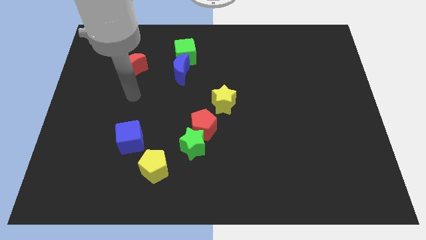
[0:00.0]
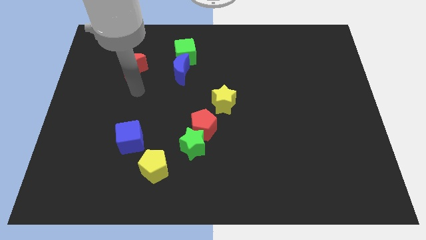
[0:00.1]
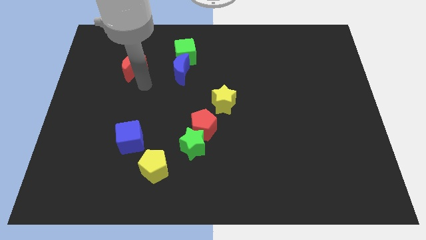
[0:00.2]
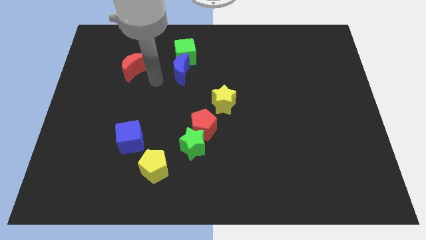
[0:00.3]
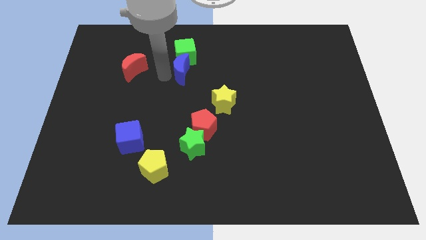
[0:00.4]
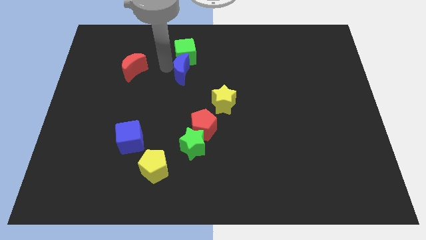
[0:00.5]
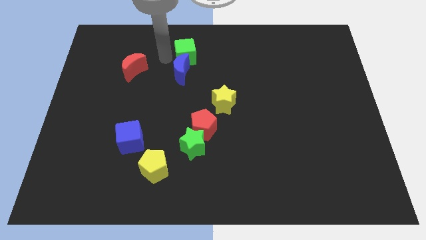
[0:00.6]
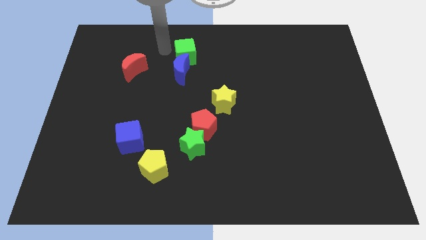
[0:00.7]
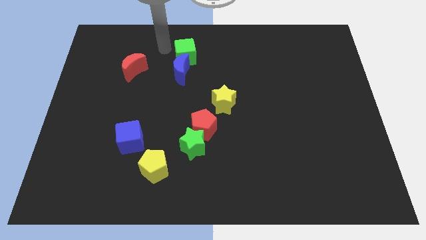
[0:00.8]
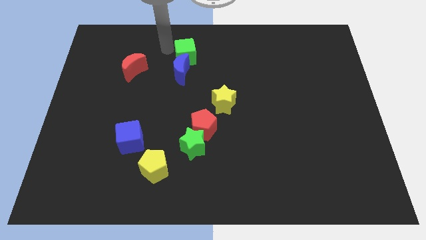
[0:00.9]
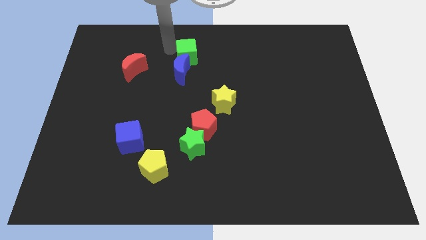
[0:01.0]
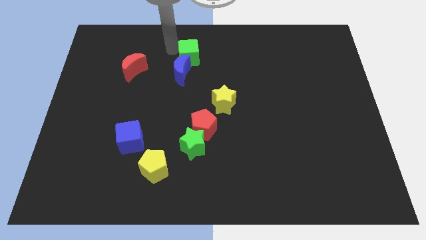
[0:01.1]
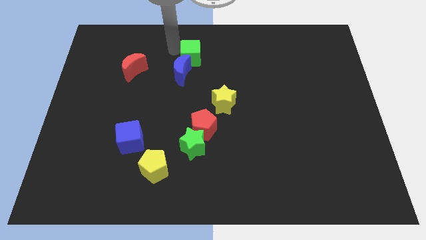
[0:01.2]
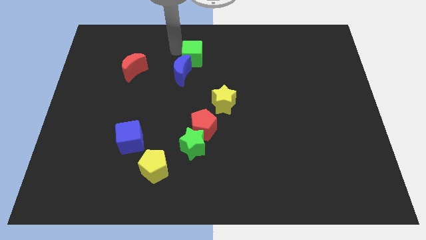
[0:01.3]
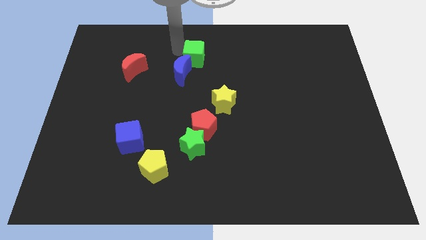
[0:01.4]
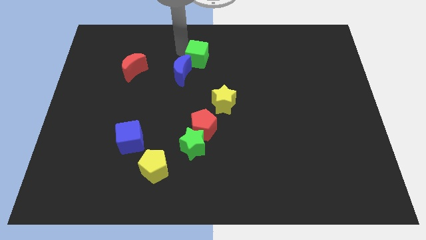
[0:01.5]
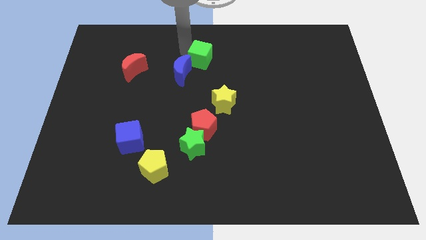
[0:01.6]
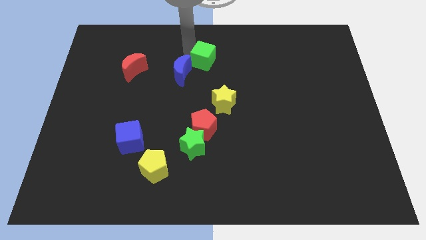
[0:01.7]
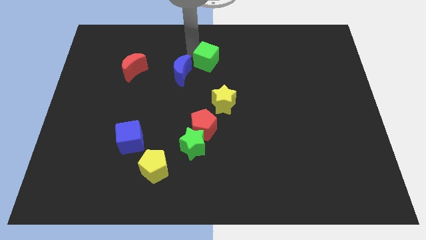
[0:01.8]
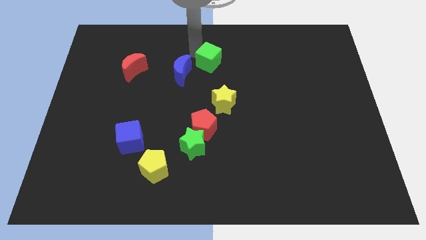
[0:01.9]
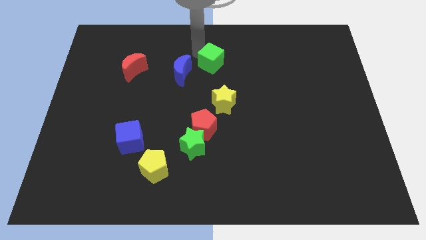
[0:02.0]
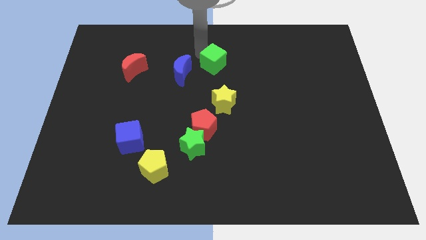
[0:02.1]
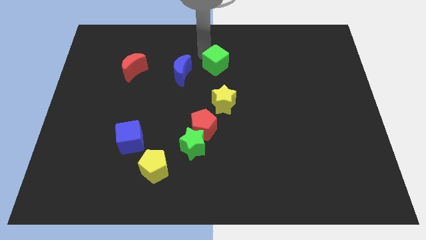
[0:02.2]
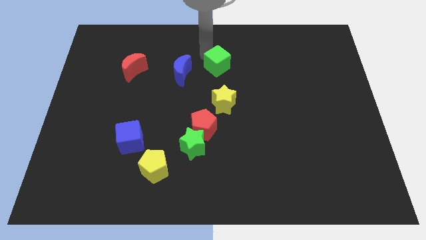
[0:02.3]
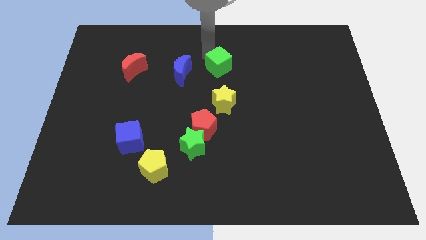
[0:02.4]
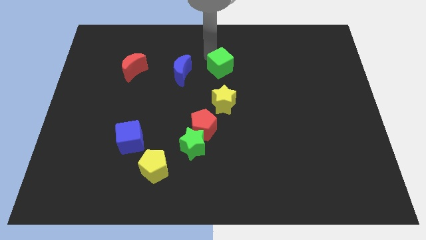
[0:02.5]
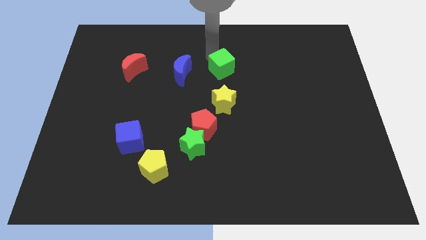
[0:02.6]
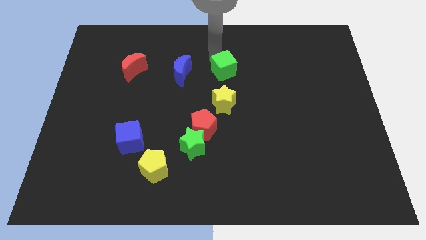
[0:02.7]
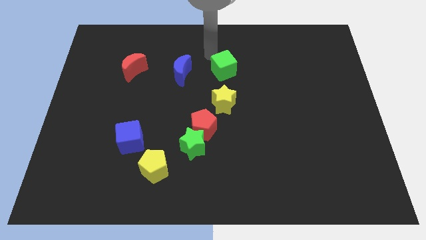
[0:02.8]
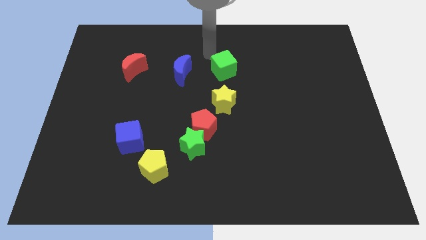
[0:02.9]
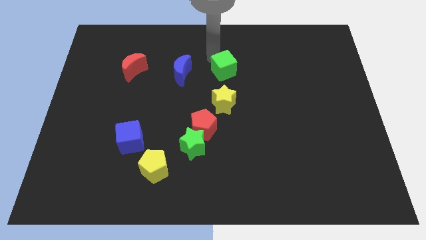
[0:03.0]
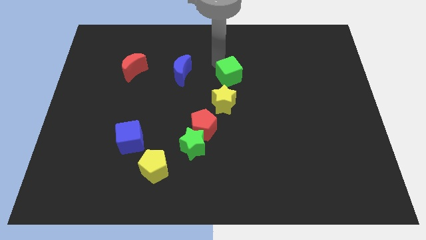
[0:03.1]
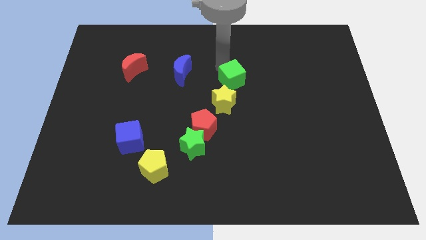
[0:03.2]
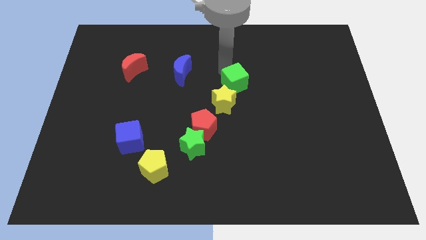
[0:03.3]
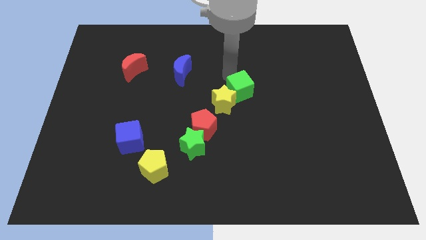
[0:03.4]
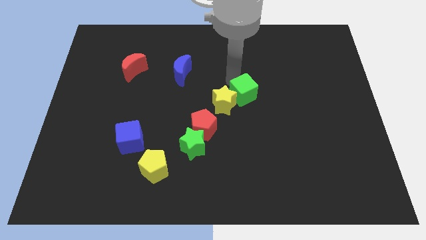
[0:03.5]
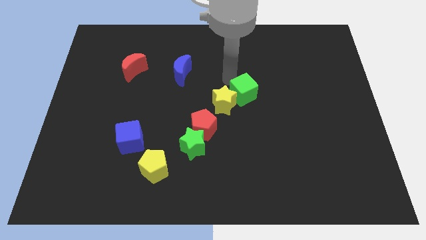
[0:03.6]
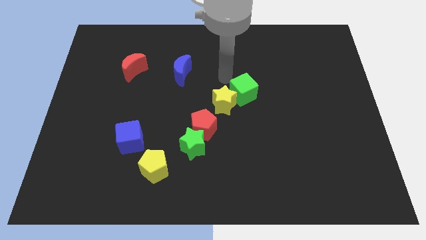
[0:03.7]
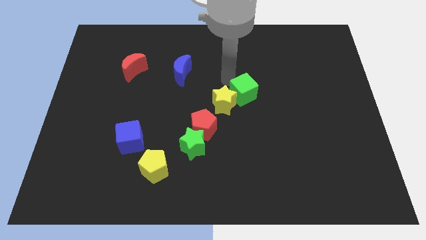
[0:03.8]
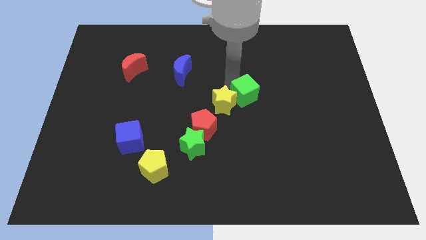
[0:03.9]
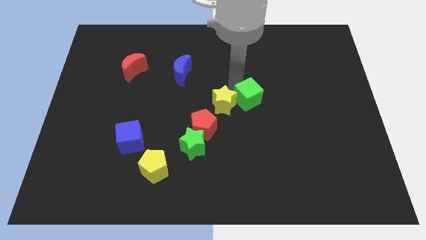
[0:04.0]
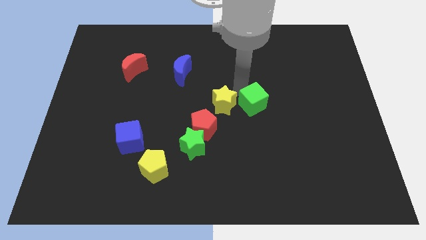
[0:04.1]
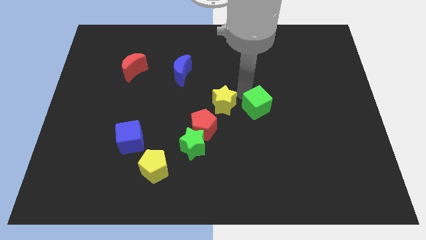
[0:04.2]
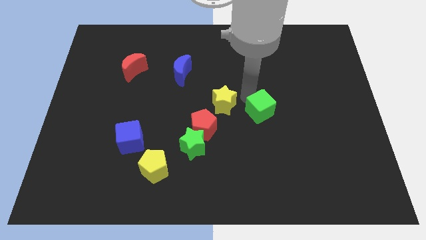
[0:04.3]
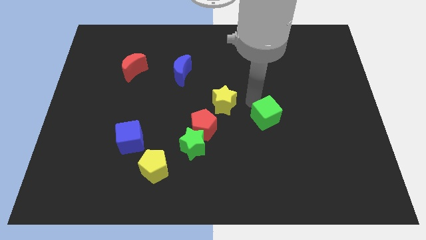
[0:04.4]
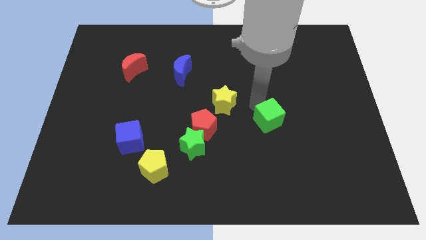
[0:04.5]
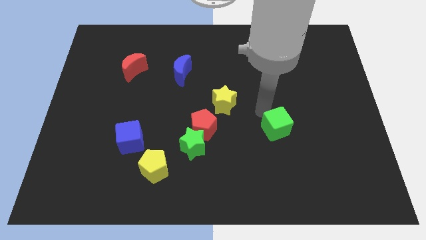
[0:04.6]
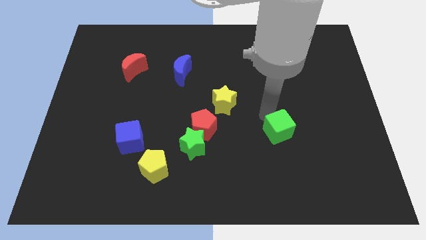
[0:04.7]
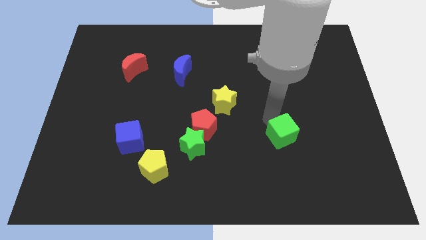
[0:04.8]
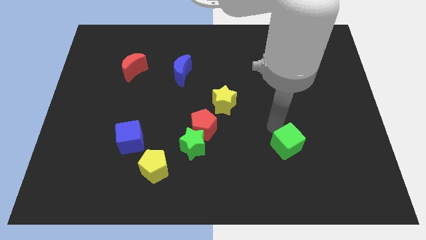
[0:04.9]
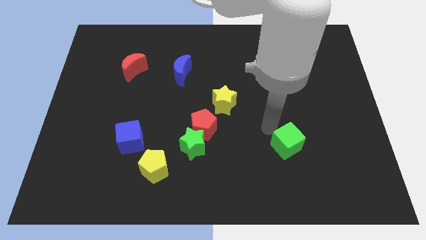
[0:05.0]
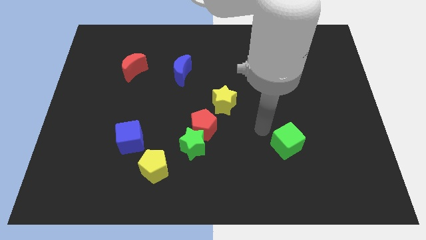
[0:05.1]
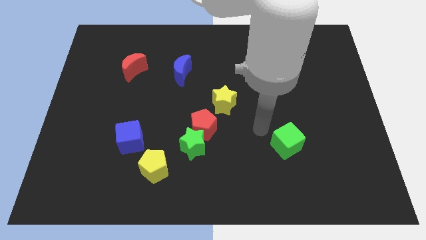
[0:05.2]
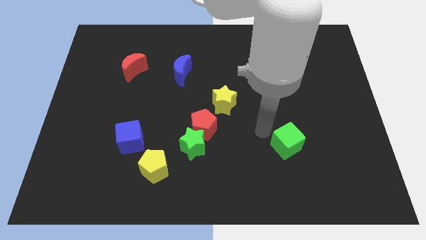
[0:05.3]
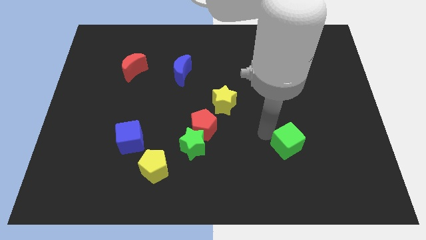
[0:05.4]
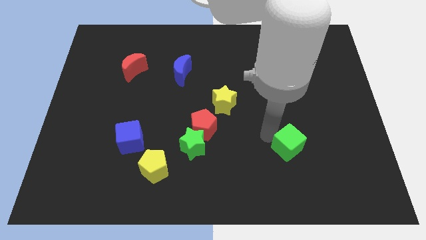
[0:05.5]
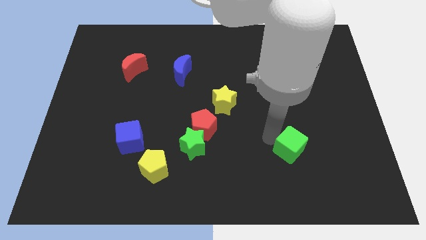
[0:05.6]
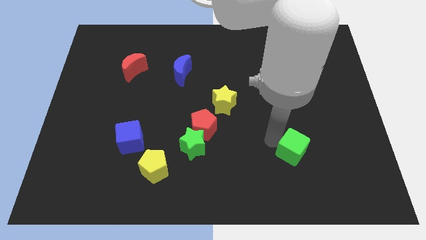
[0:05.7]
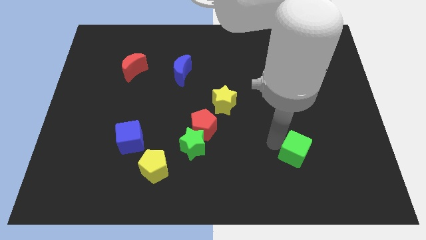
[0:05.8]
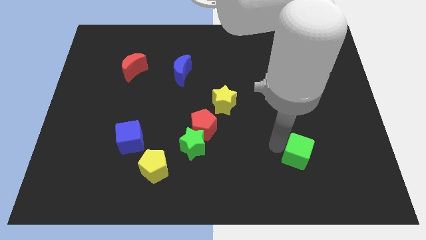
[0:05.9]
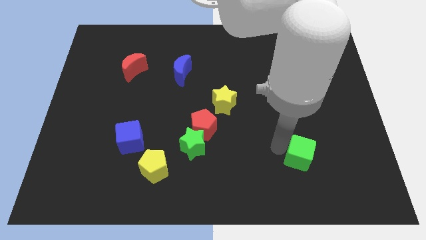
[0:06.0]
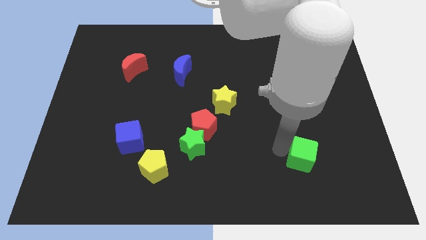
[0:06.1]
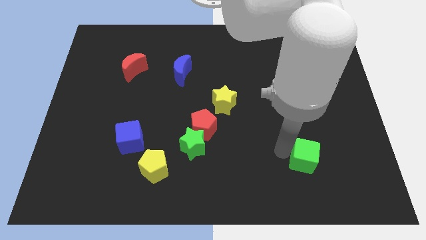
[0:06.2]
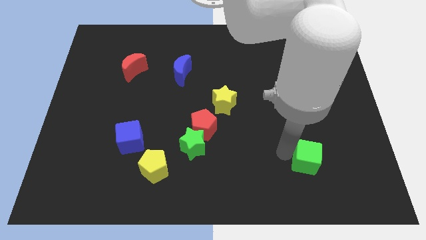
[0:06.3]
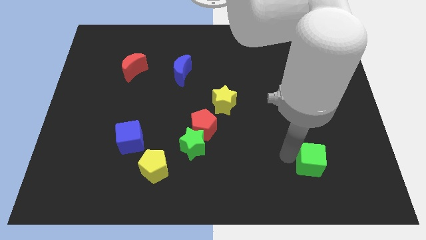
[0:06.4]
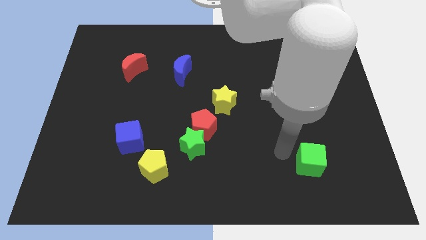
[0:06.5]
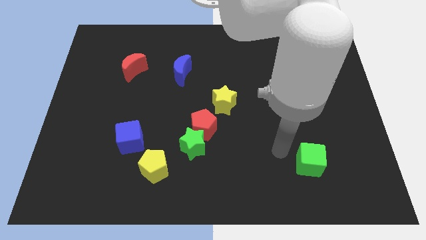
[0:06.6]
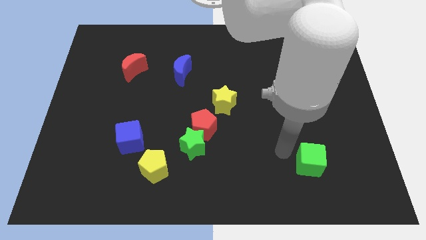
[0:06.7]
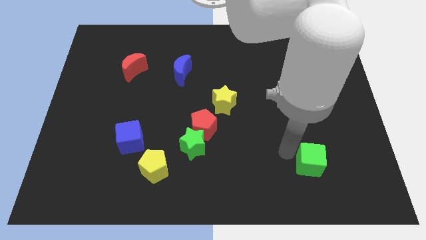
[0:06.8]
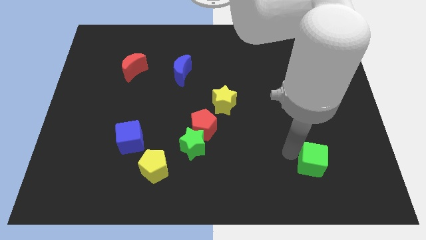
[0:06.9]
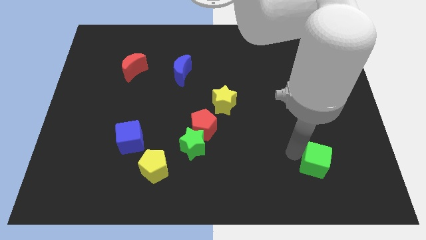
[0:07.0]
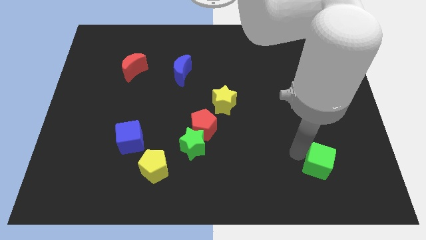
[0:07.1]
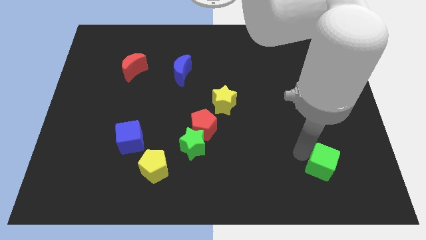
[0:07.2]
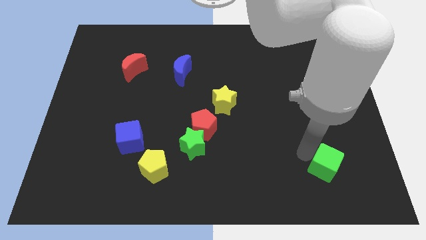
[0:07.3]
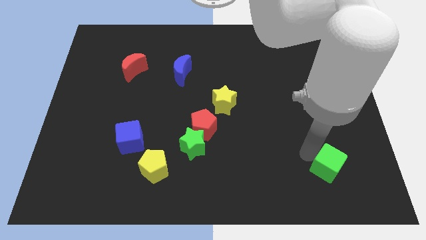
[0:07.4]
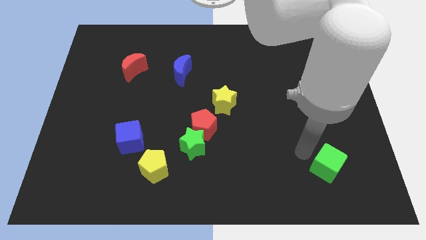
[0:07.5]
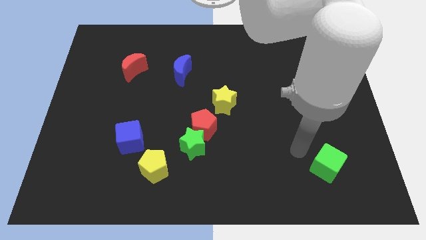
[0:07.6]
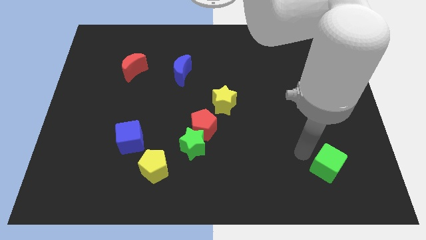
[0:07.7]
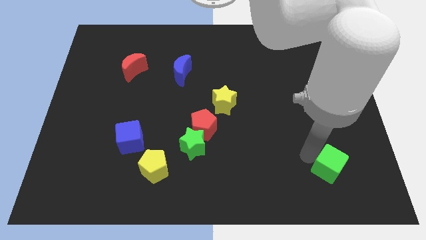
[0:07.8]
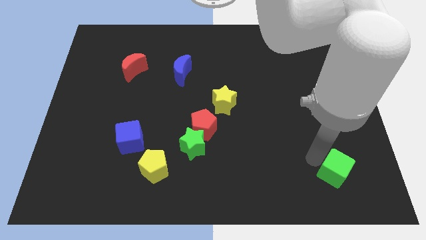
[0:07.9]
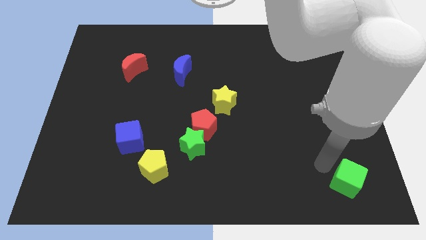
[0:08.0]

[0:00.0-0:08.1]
push the green cube to the bottom right
